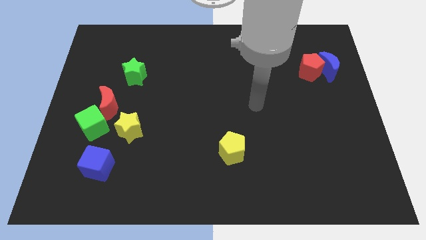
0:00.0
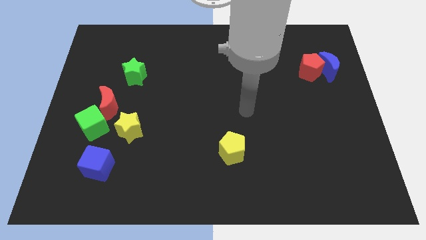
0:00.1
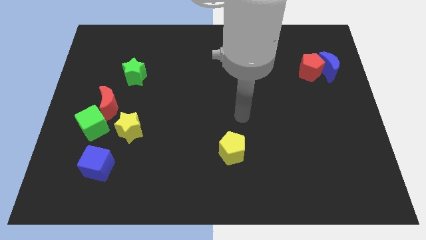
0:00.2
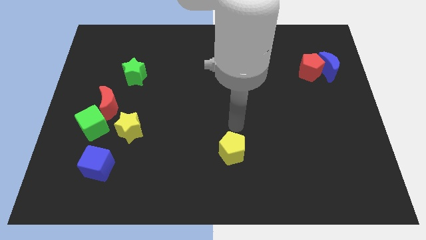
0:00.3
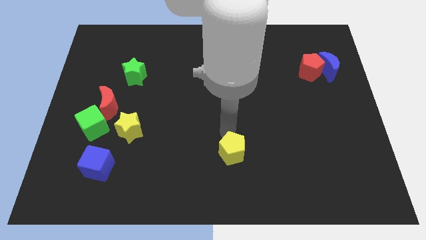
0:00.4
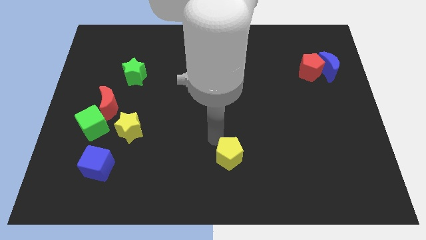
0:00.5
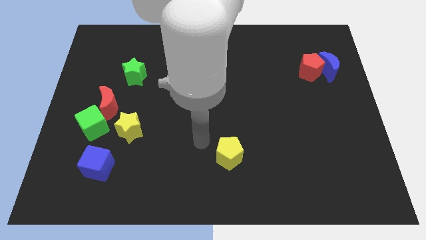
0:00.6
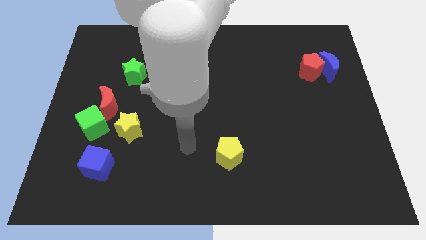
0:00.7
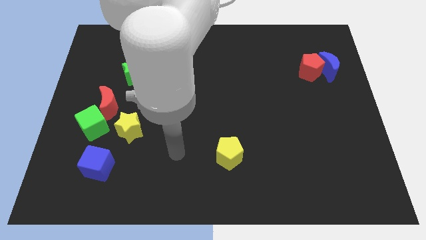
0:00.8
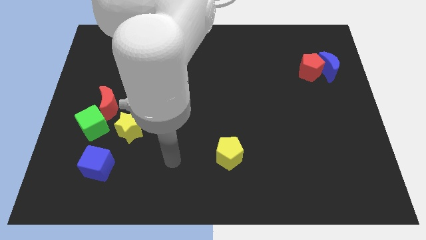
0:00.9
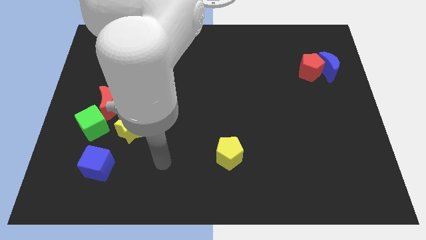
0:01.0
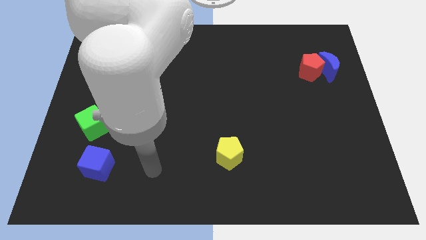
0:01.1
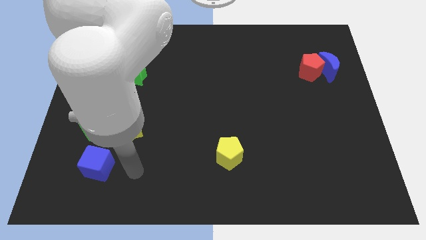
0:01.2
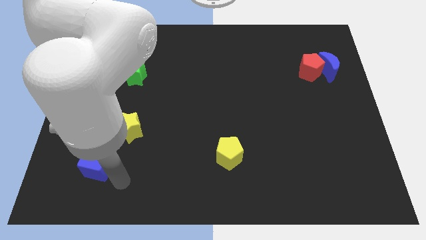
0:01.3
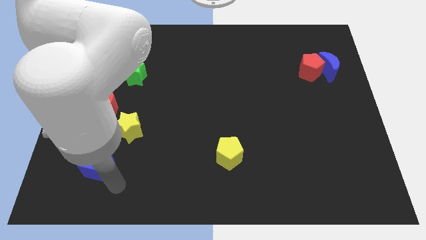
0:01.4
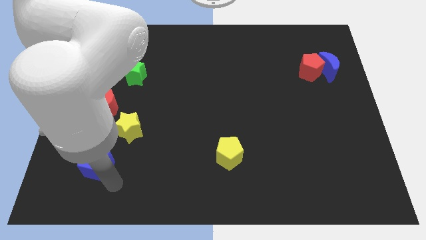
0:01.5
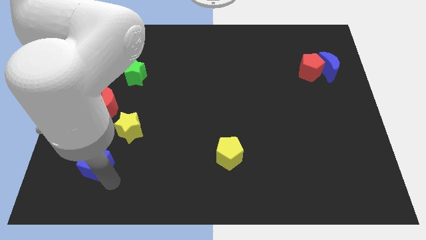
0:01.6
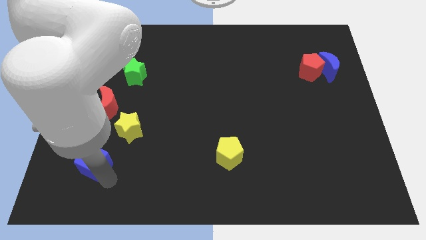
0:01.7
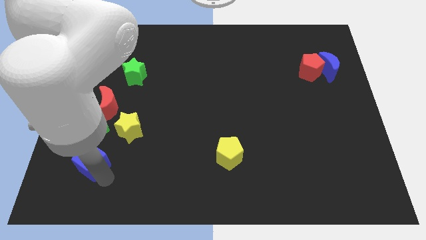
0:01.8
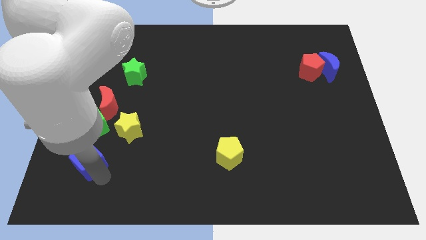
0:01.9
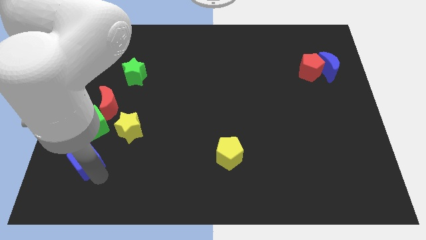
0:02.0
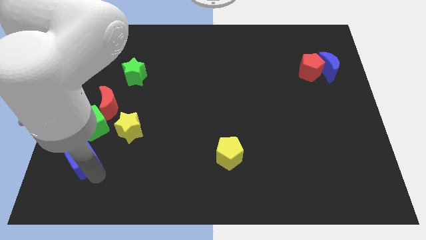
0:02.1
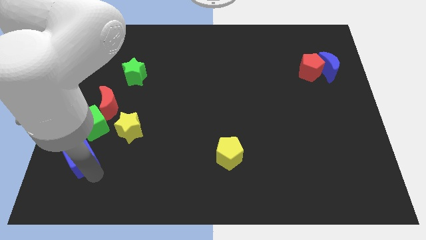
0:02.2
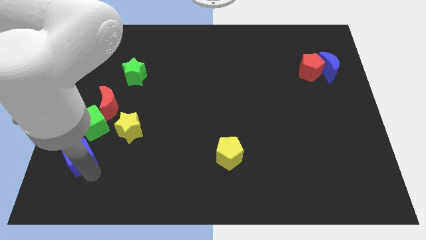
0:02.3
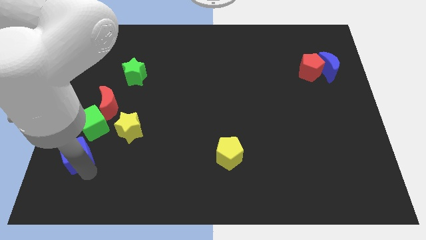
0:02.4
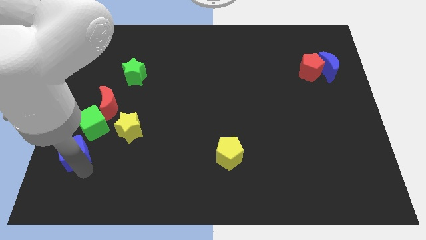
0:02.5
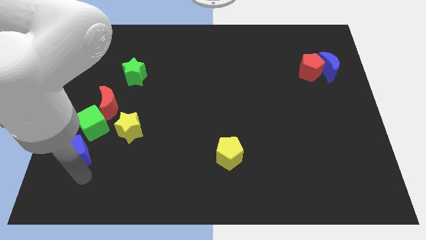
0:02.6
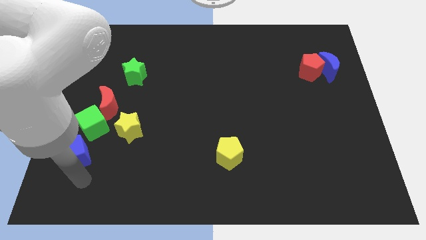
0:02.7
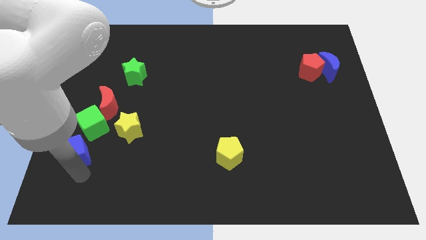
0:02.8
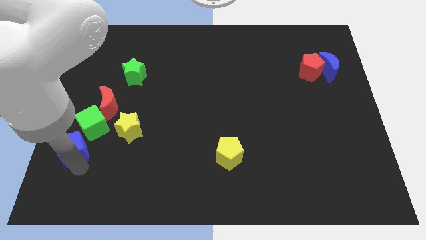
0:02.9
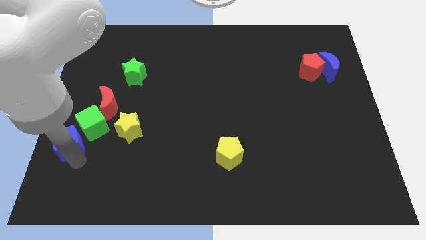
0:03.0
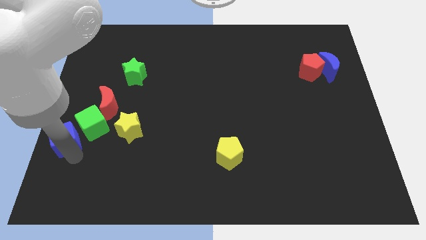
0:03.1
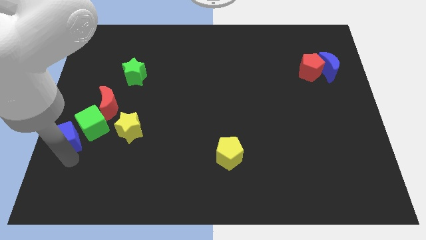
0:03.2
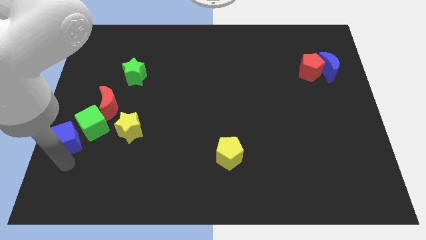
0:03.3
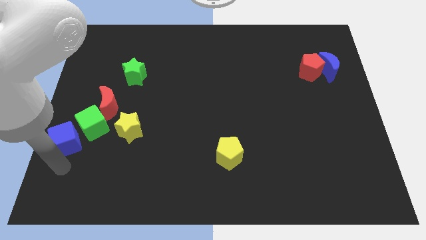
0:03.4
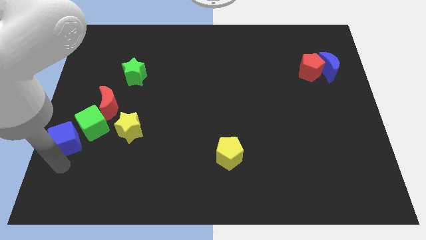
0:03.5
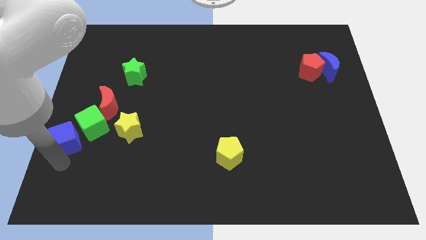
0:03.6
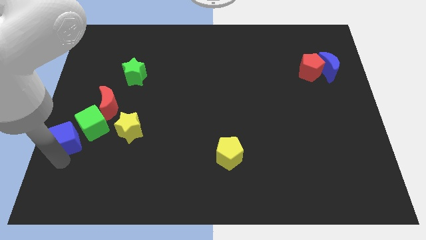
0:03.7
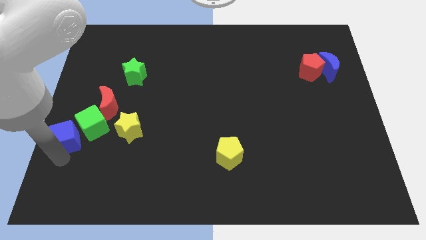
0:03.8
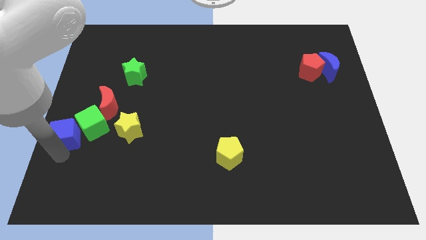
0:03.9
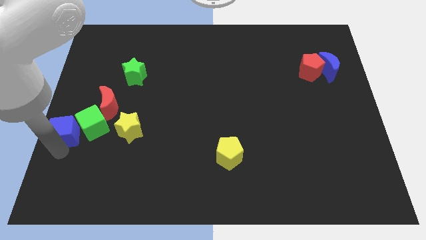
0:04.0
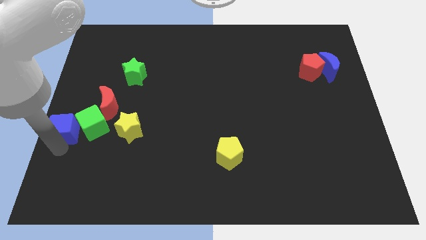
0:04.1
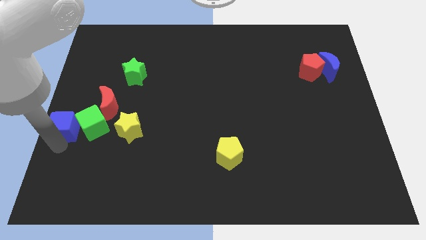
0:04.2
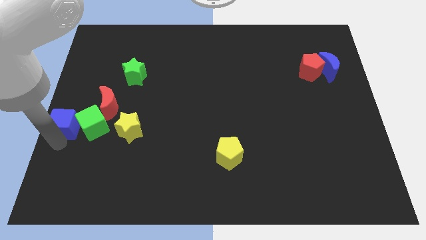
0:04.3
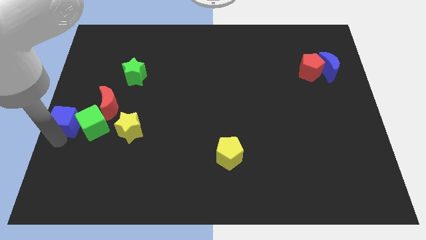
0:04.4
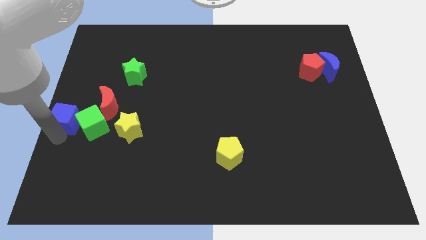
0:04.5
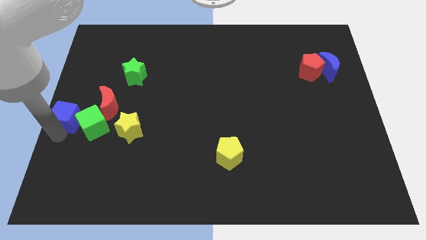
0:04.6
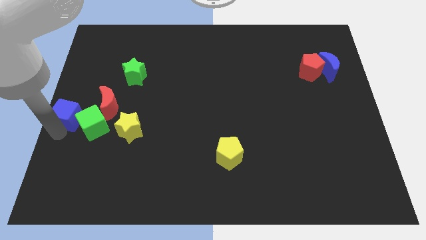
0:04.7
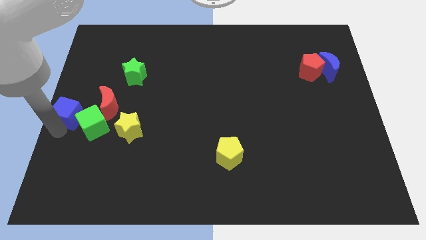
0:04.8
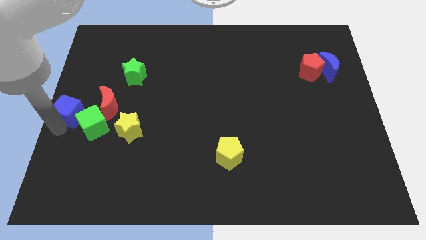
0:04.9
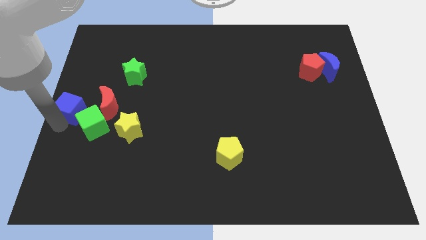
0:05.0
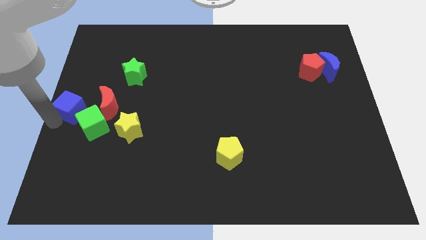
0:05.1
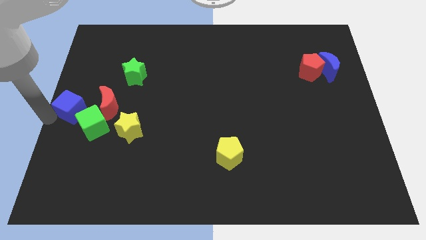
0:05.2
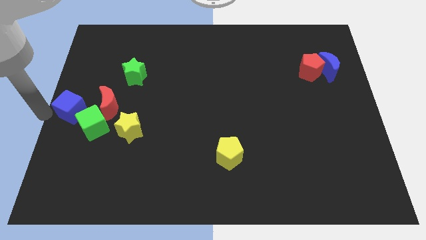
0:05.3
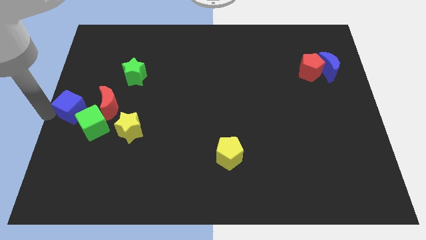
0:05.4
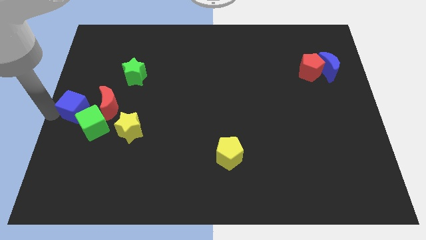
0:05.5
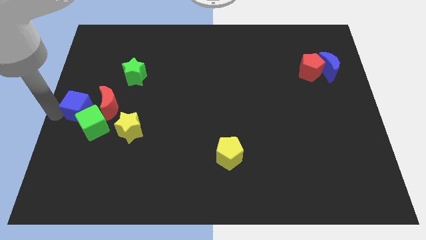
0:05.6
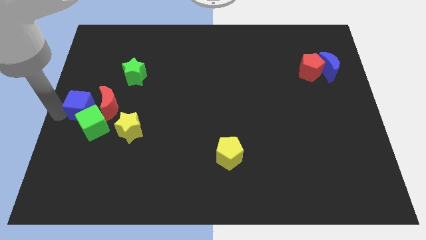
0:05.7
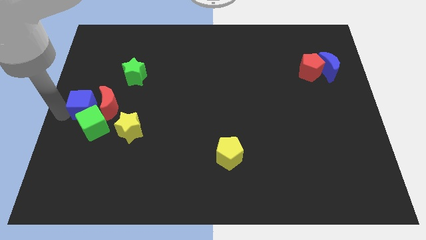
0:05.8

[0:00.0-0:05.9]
push the blue cube towards the red moon

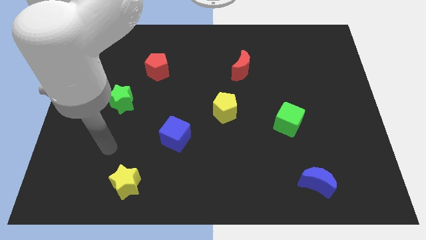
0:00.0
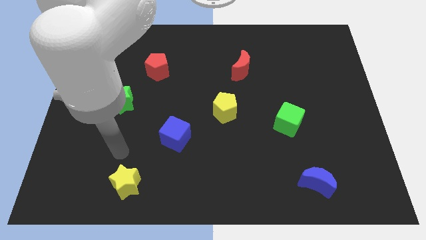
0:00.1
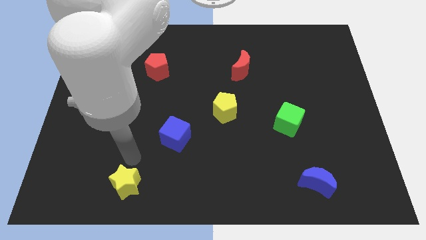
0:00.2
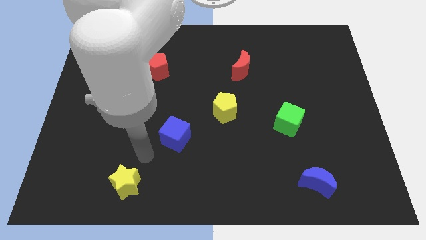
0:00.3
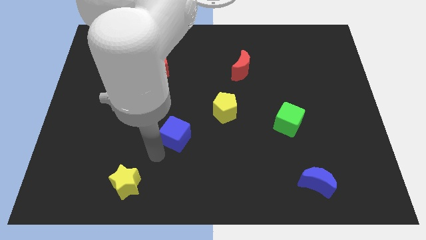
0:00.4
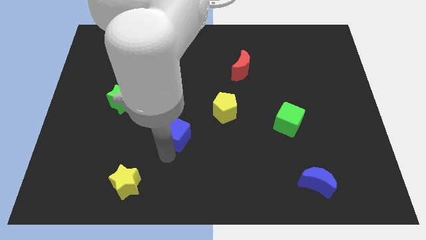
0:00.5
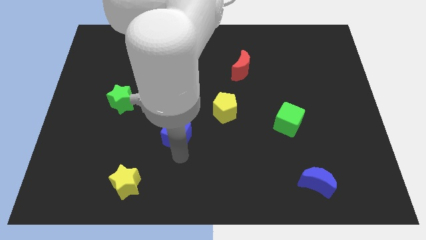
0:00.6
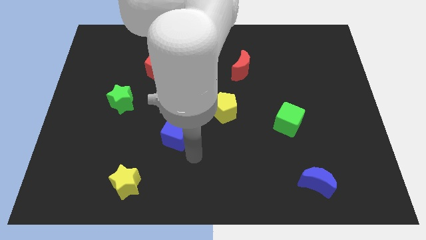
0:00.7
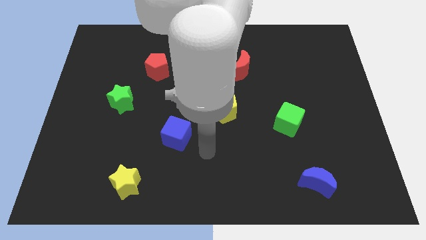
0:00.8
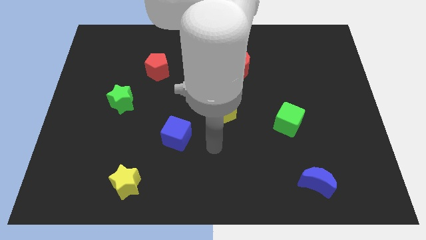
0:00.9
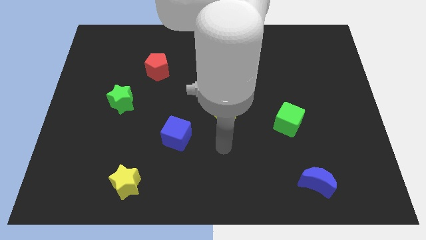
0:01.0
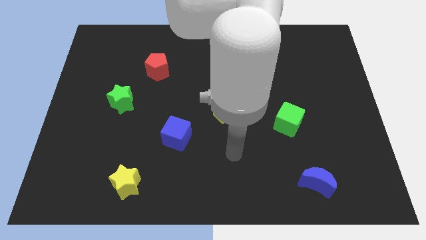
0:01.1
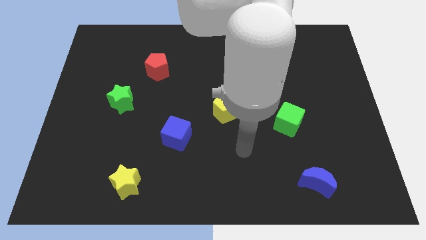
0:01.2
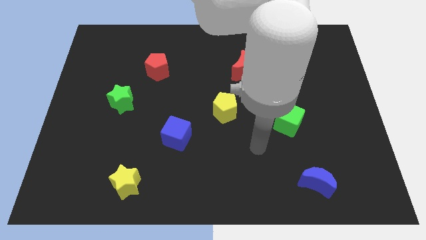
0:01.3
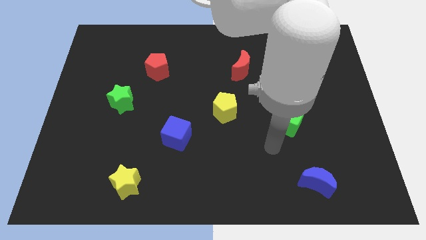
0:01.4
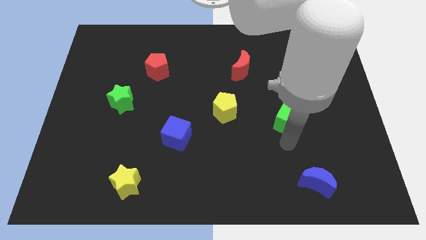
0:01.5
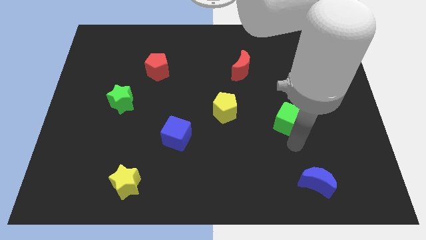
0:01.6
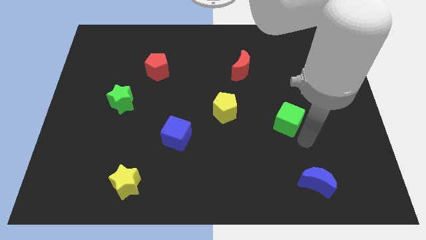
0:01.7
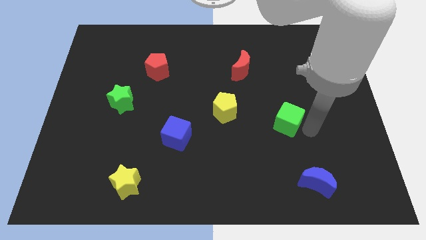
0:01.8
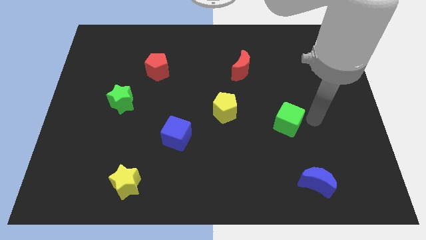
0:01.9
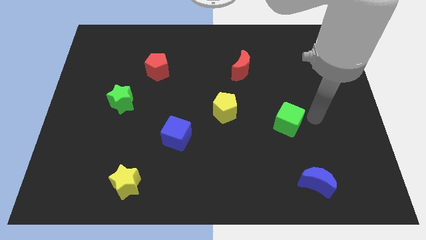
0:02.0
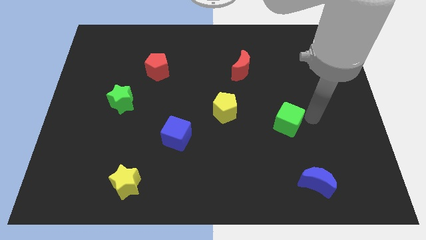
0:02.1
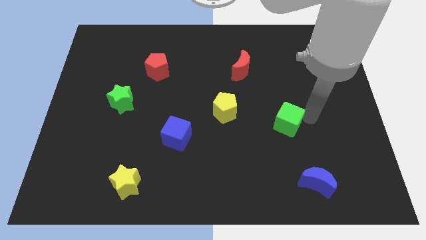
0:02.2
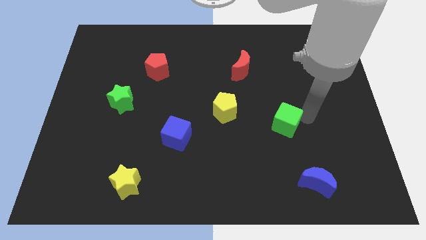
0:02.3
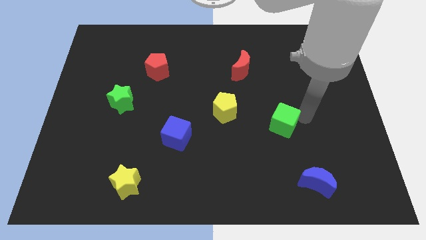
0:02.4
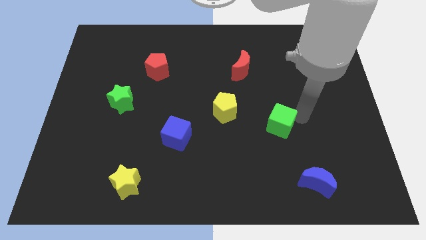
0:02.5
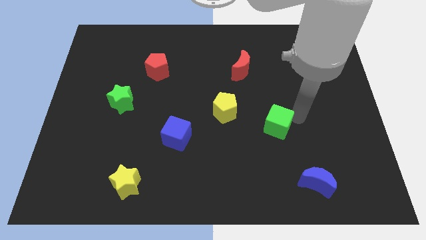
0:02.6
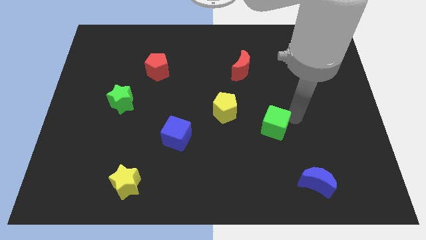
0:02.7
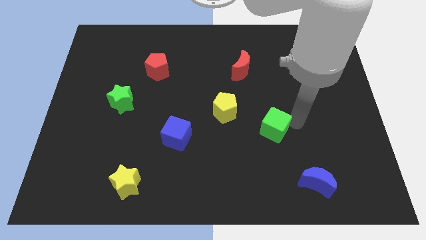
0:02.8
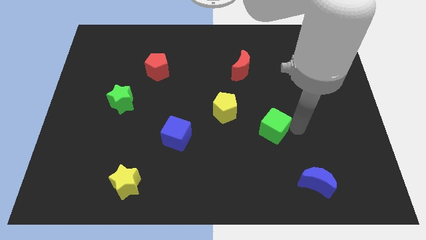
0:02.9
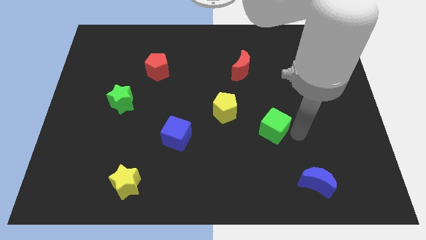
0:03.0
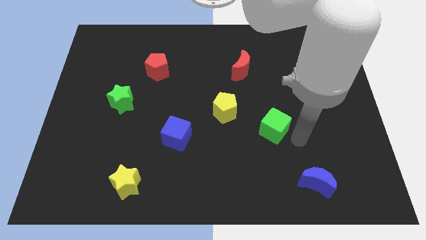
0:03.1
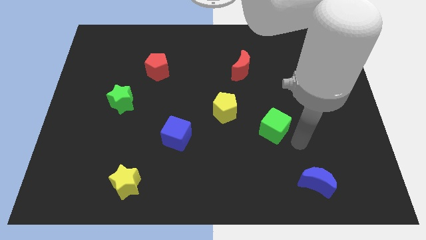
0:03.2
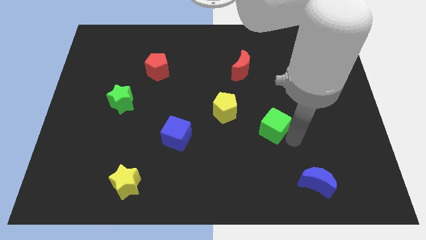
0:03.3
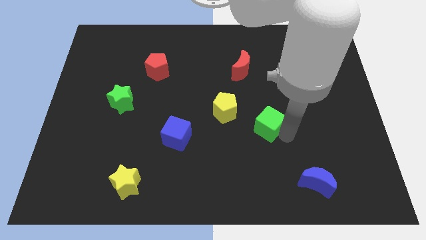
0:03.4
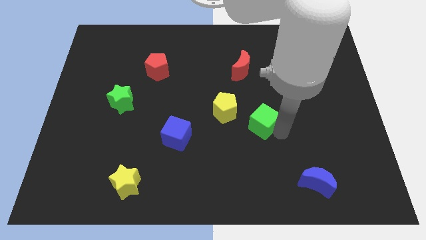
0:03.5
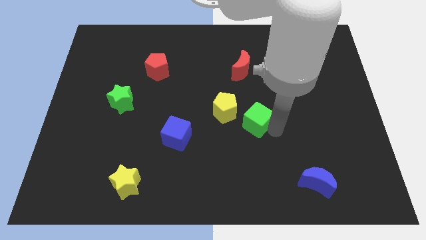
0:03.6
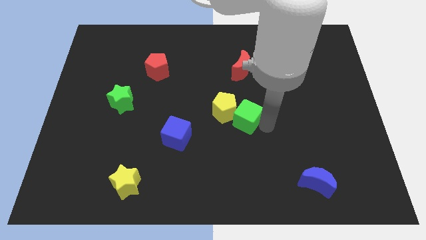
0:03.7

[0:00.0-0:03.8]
move the green cube next to the yellow pentagon
